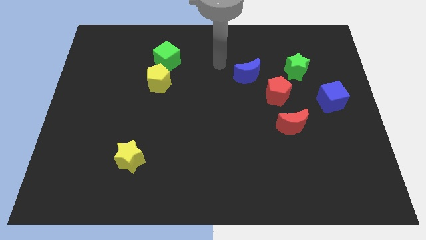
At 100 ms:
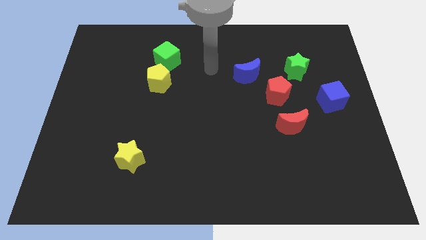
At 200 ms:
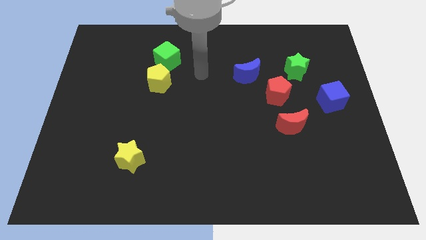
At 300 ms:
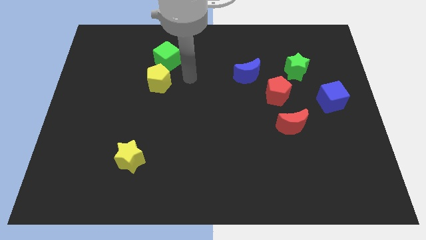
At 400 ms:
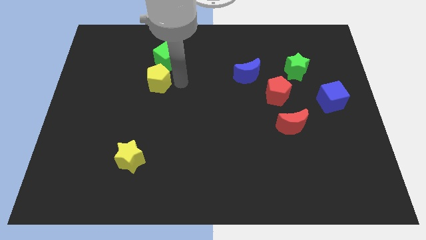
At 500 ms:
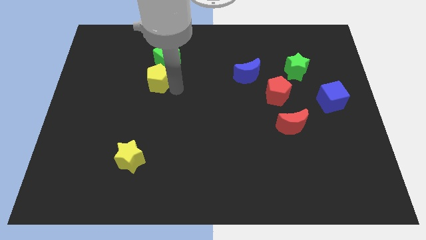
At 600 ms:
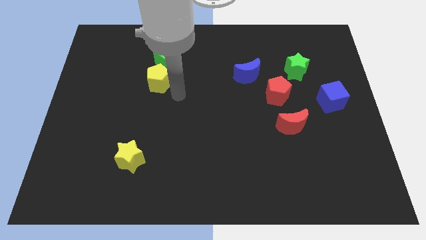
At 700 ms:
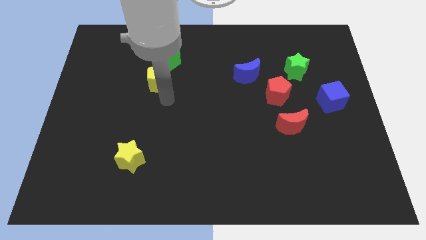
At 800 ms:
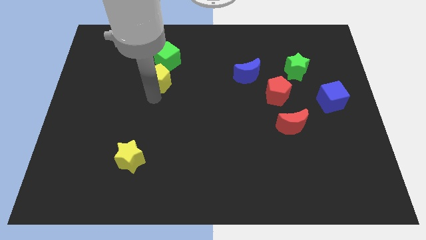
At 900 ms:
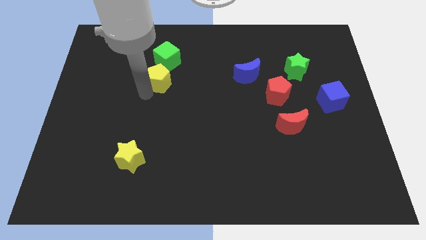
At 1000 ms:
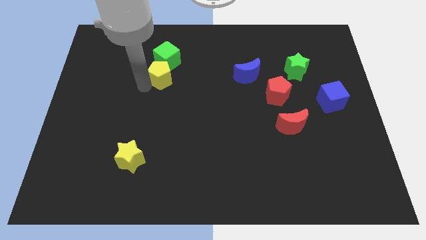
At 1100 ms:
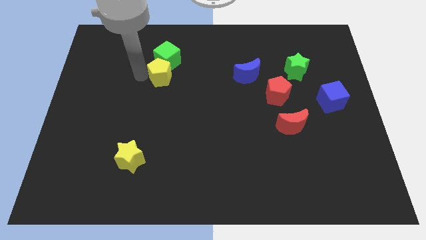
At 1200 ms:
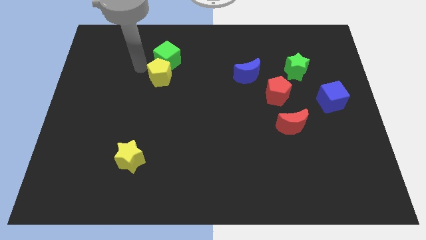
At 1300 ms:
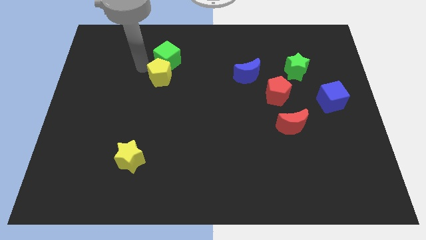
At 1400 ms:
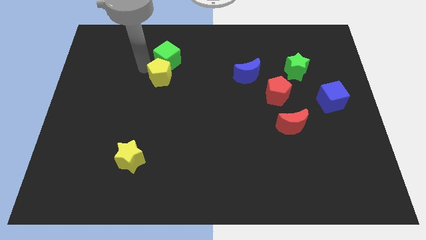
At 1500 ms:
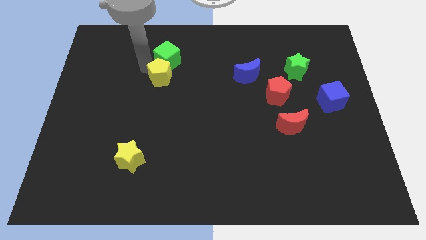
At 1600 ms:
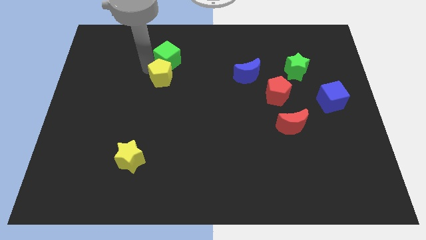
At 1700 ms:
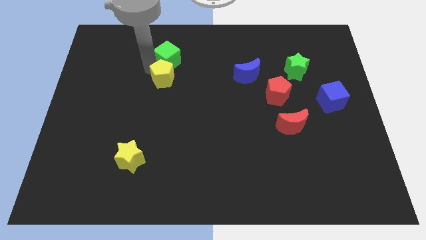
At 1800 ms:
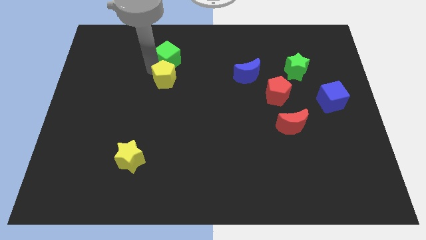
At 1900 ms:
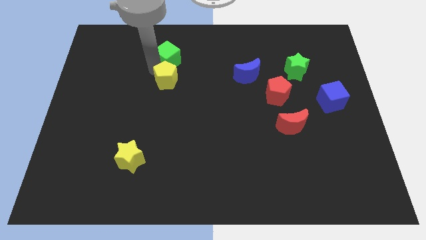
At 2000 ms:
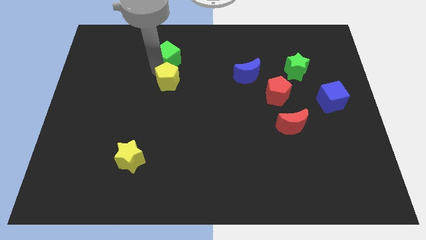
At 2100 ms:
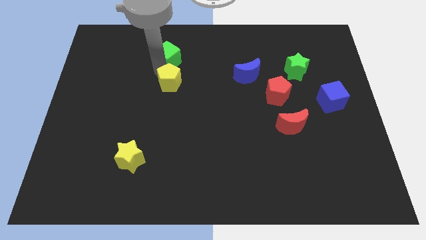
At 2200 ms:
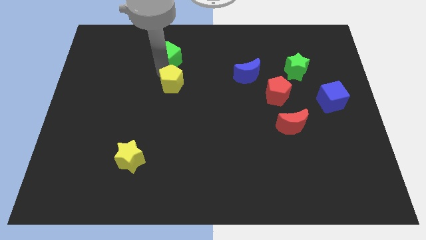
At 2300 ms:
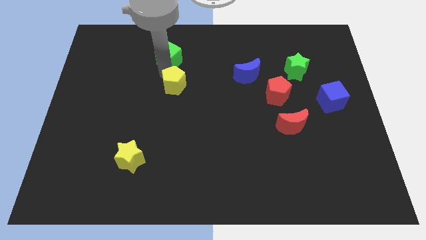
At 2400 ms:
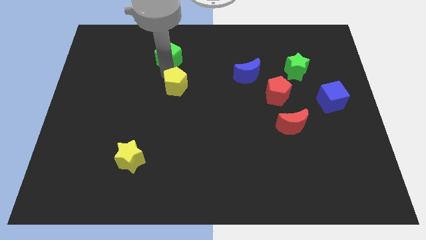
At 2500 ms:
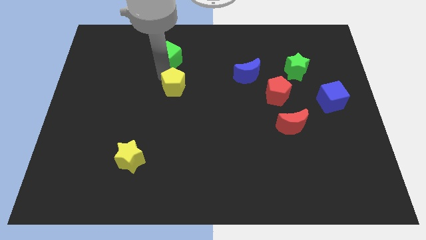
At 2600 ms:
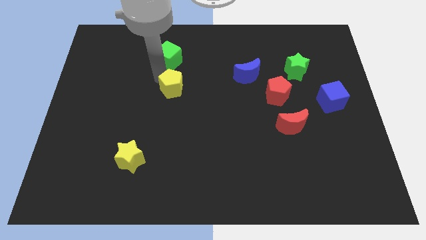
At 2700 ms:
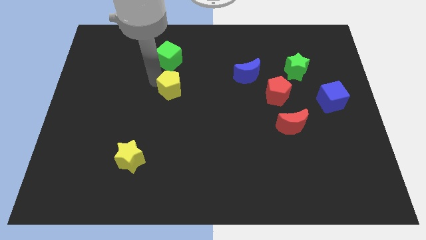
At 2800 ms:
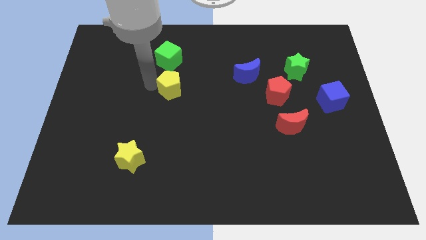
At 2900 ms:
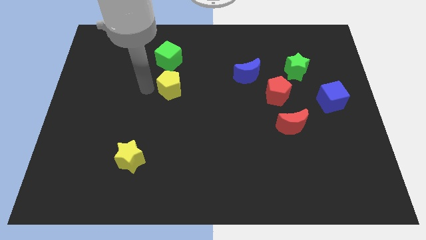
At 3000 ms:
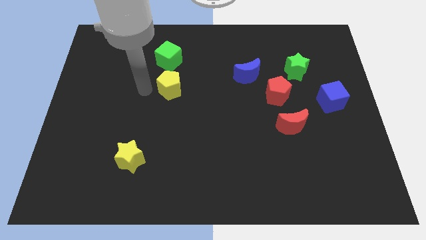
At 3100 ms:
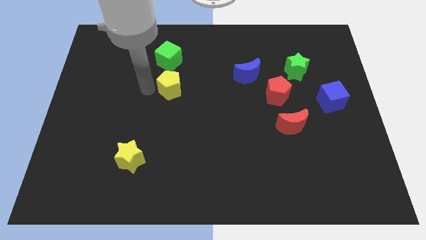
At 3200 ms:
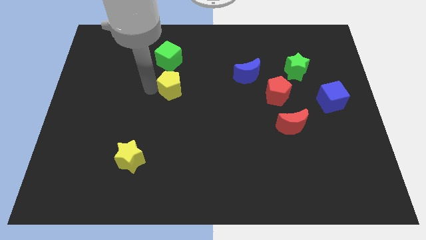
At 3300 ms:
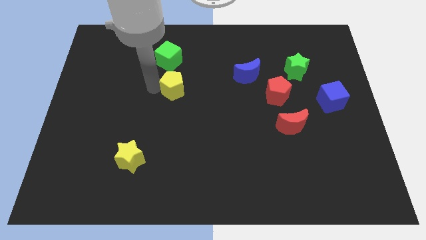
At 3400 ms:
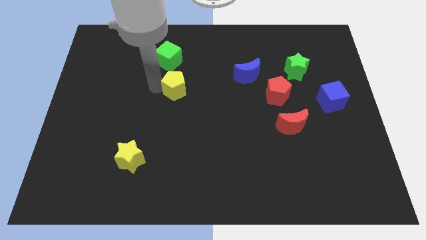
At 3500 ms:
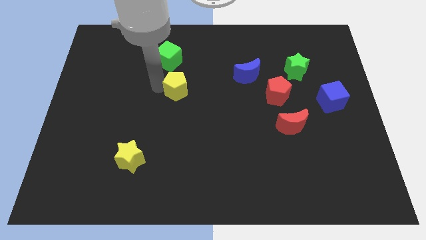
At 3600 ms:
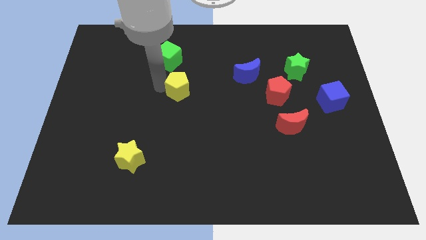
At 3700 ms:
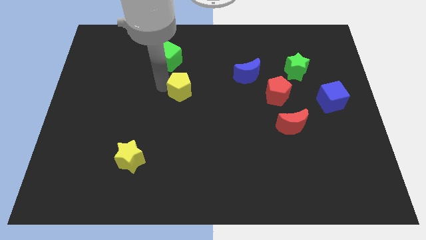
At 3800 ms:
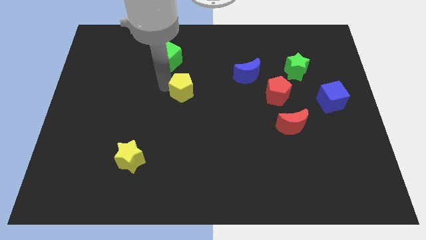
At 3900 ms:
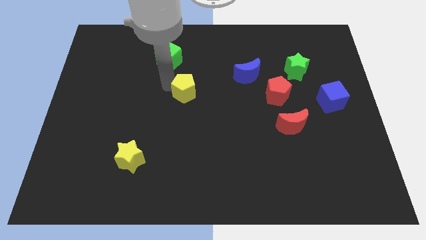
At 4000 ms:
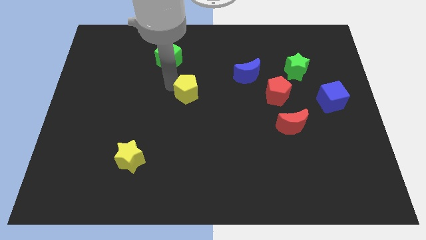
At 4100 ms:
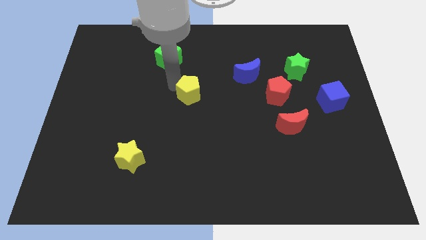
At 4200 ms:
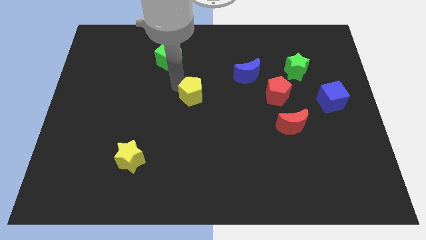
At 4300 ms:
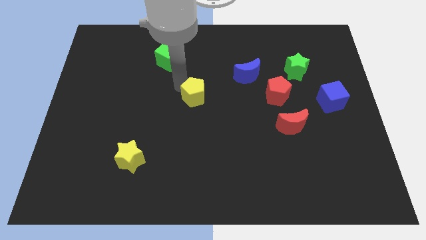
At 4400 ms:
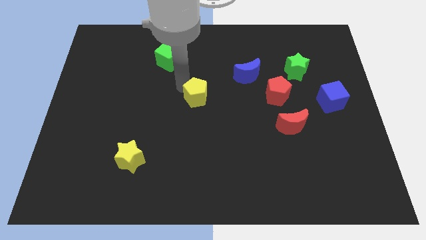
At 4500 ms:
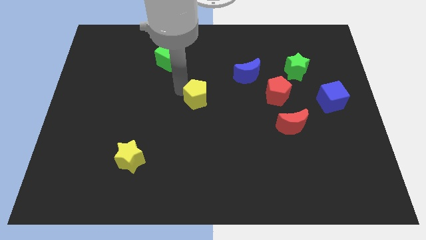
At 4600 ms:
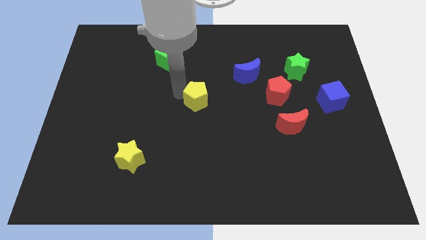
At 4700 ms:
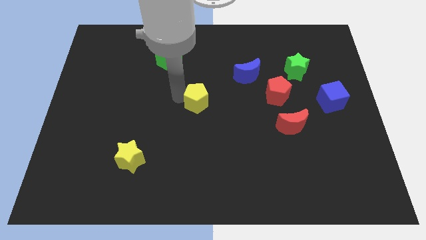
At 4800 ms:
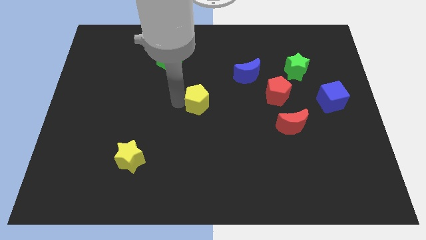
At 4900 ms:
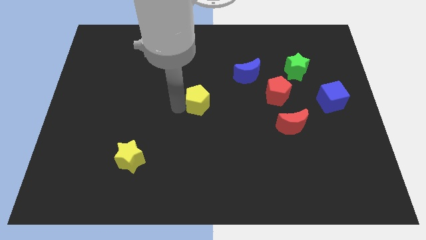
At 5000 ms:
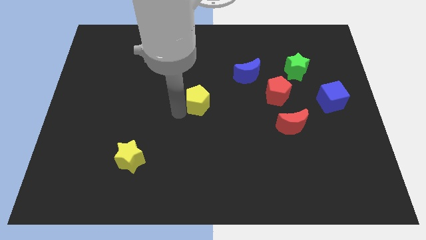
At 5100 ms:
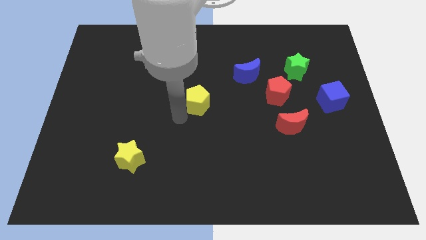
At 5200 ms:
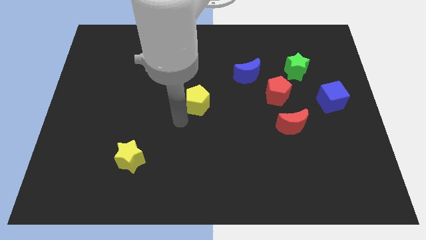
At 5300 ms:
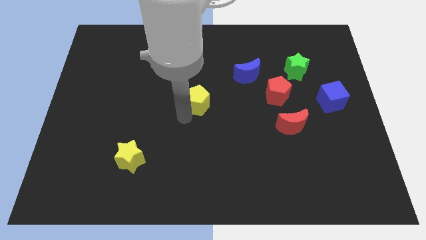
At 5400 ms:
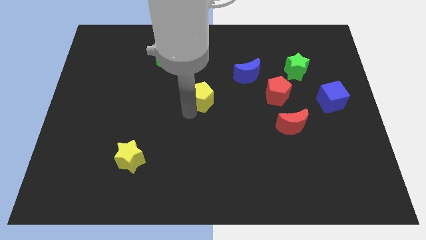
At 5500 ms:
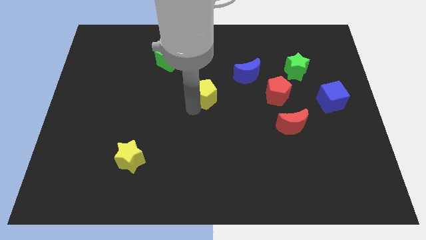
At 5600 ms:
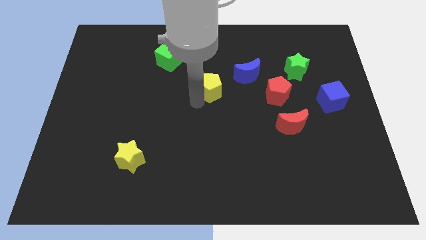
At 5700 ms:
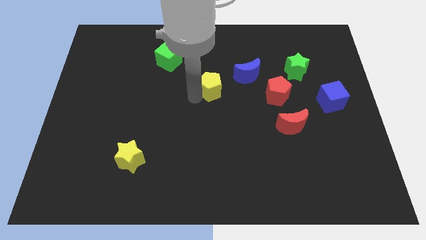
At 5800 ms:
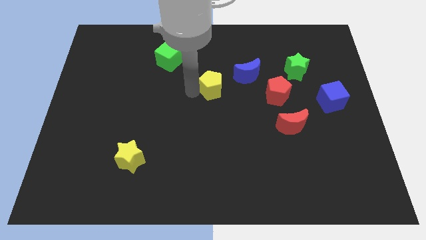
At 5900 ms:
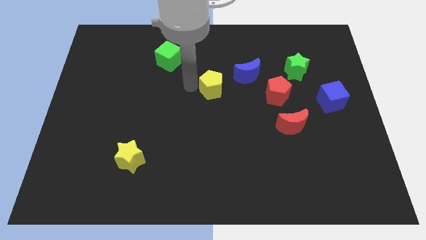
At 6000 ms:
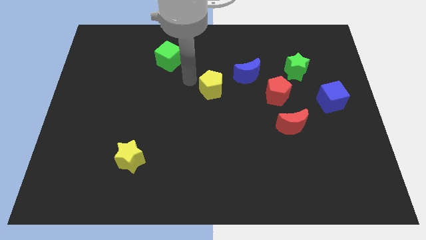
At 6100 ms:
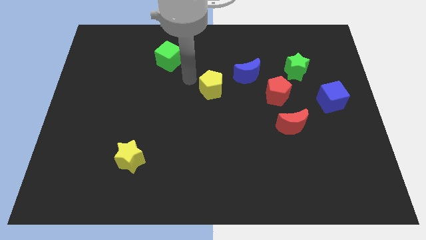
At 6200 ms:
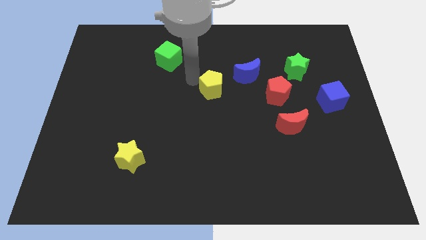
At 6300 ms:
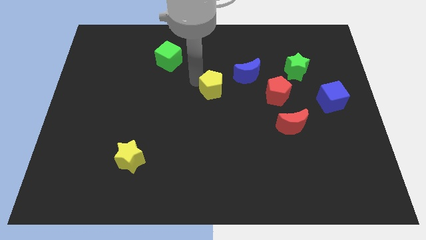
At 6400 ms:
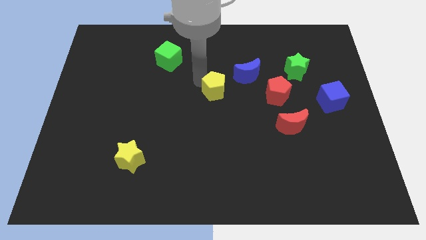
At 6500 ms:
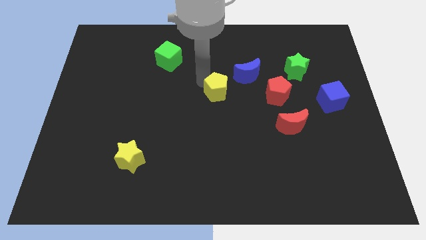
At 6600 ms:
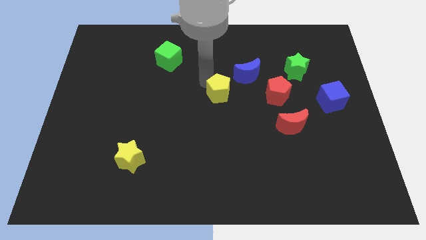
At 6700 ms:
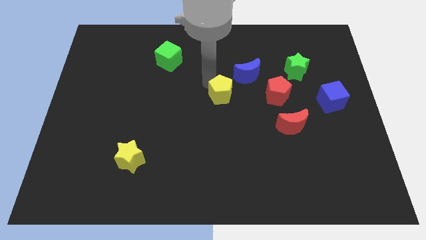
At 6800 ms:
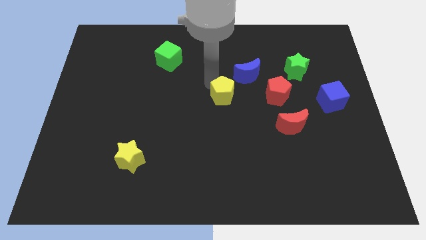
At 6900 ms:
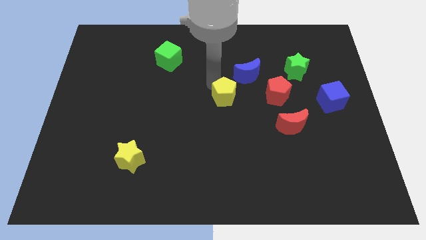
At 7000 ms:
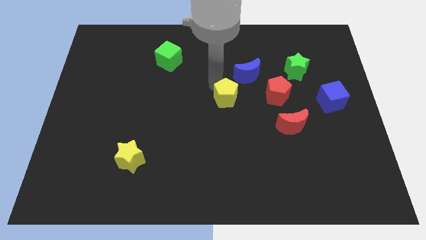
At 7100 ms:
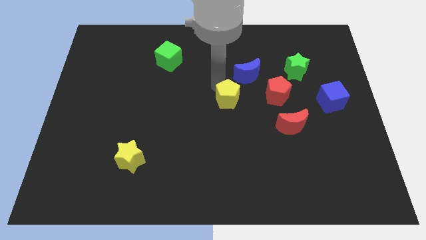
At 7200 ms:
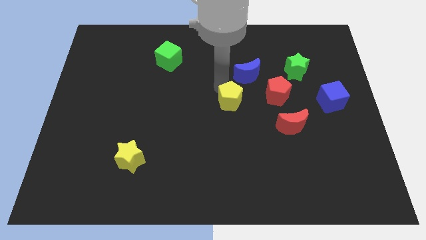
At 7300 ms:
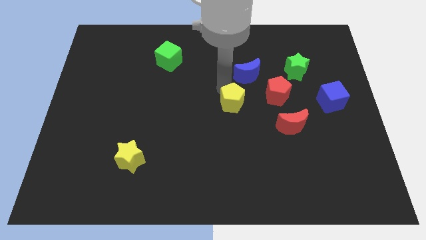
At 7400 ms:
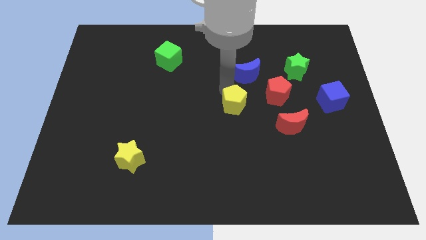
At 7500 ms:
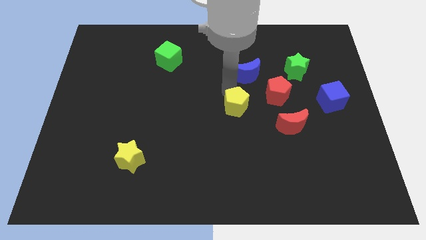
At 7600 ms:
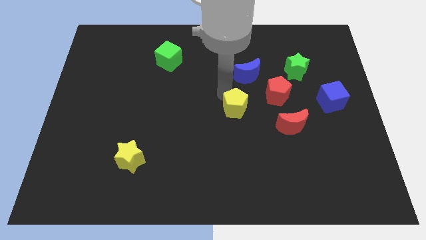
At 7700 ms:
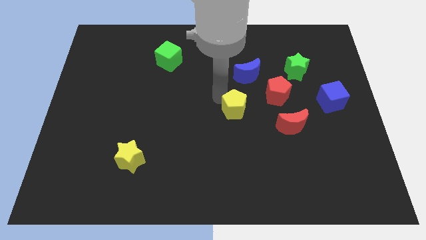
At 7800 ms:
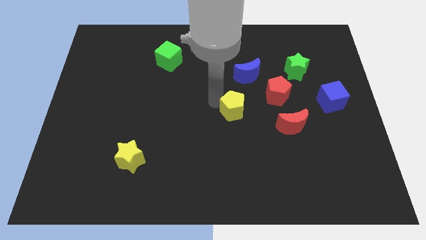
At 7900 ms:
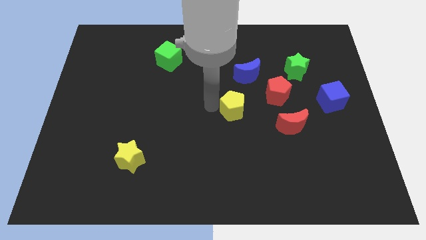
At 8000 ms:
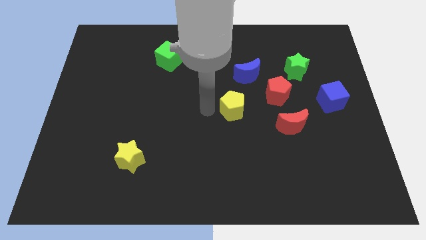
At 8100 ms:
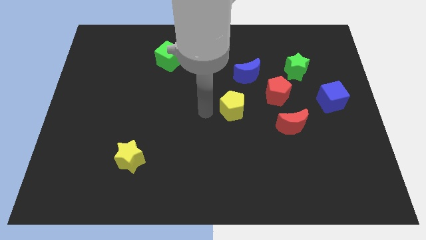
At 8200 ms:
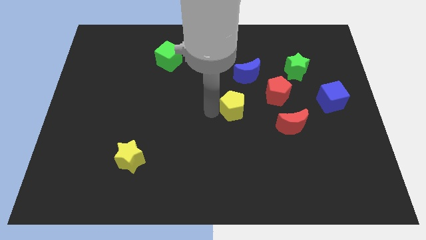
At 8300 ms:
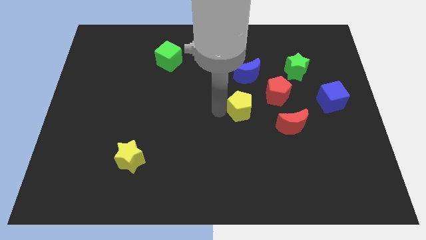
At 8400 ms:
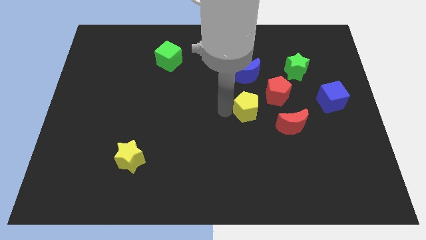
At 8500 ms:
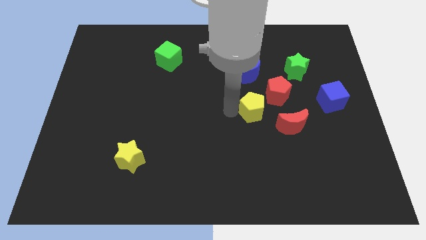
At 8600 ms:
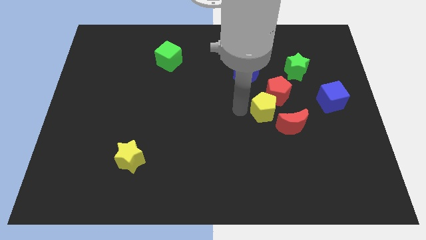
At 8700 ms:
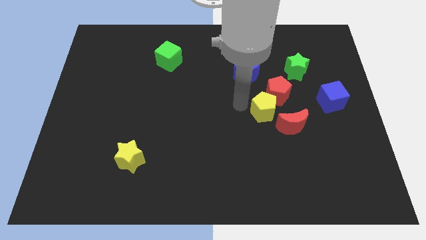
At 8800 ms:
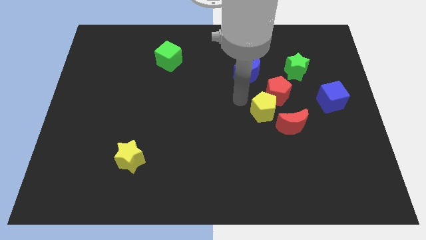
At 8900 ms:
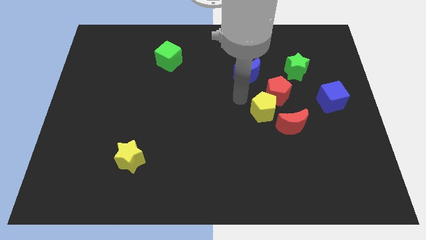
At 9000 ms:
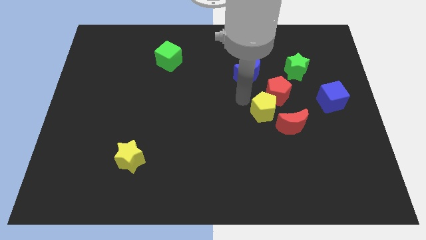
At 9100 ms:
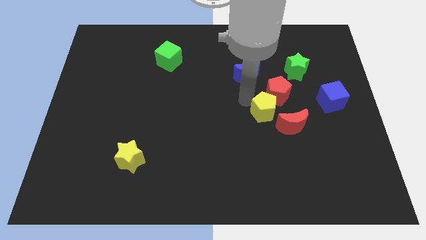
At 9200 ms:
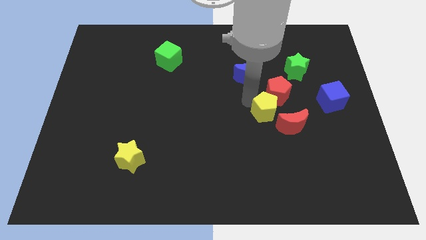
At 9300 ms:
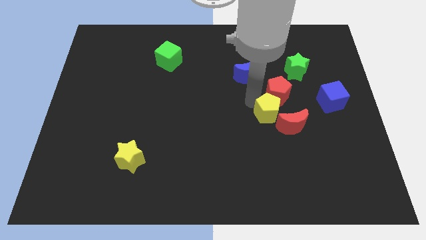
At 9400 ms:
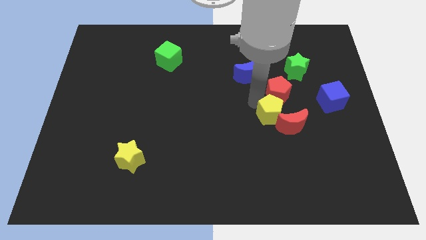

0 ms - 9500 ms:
move the yellow pentagon close to the red moon
